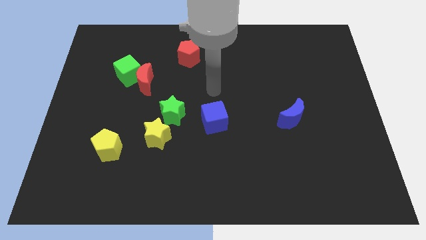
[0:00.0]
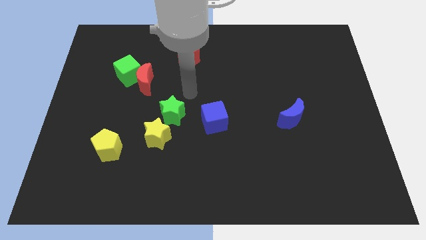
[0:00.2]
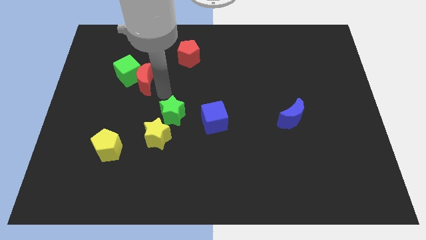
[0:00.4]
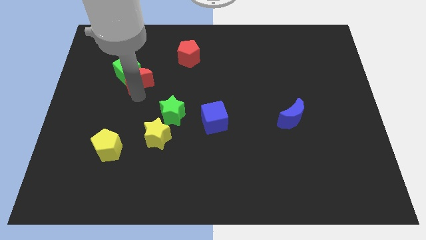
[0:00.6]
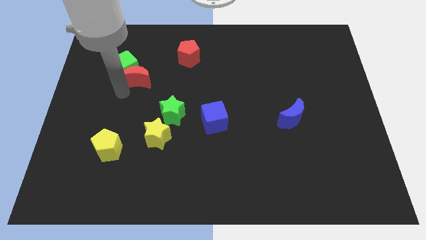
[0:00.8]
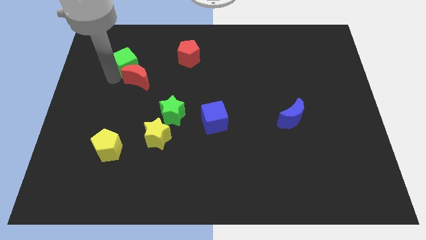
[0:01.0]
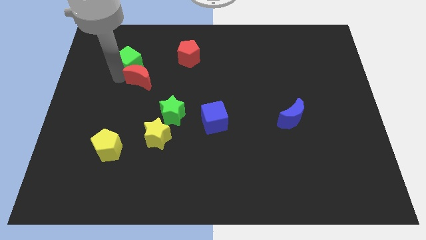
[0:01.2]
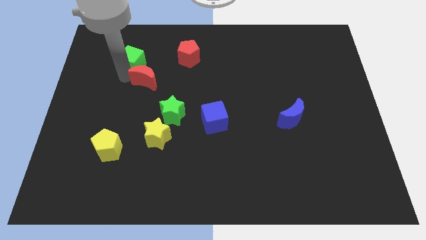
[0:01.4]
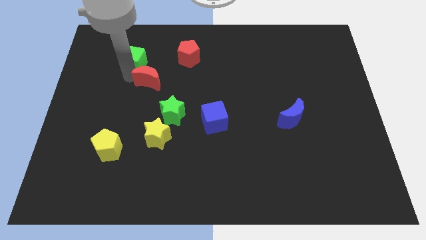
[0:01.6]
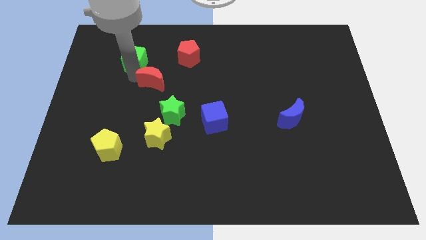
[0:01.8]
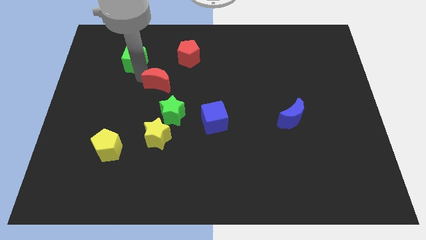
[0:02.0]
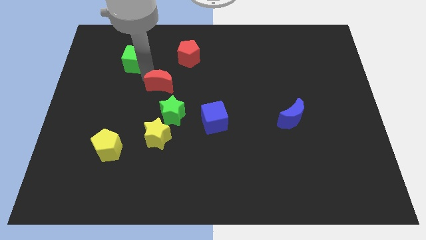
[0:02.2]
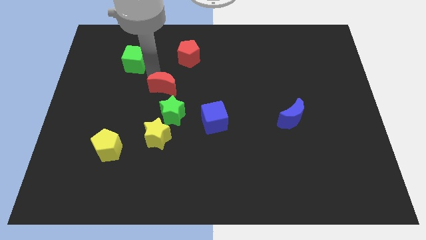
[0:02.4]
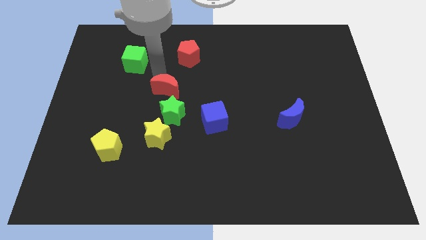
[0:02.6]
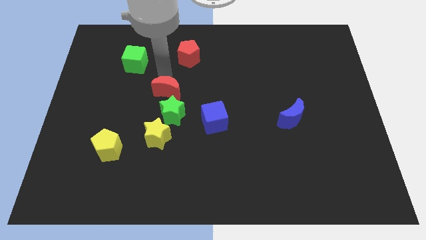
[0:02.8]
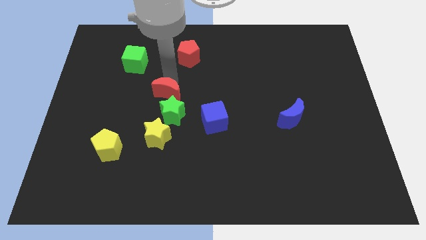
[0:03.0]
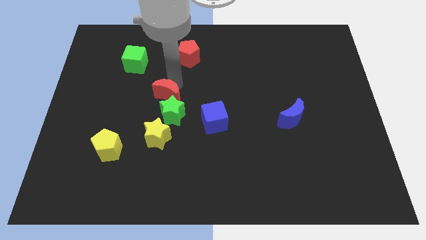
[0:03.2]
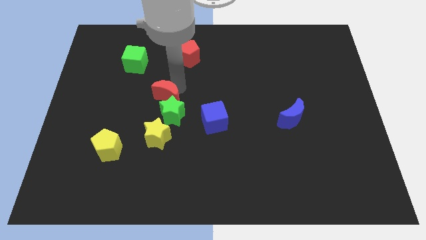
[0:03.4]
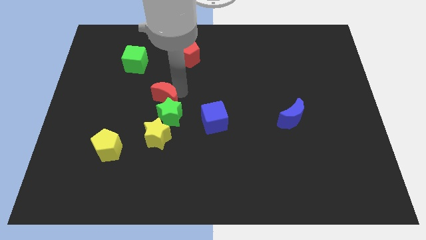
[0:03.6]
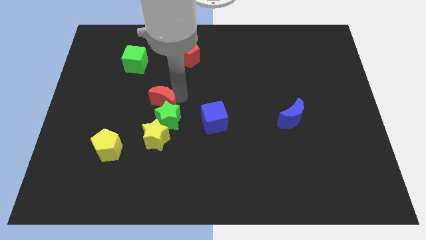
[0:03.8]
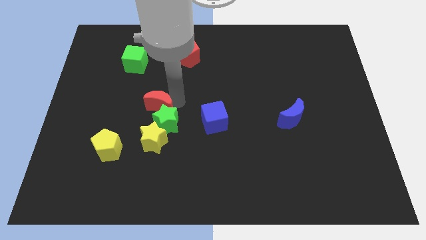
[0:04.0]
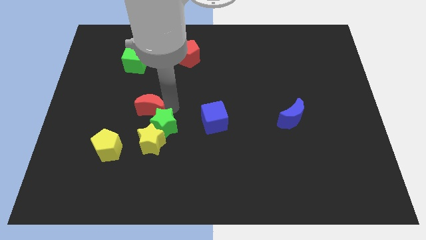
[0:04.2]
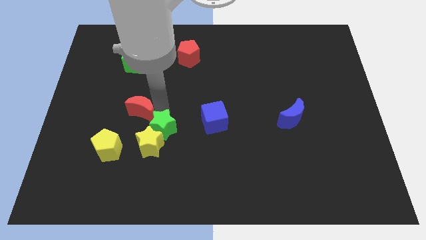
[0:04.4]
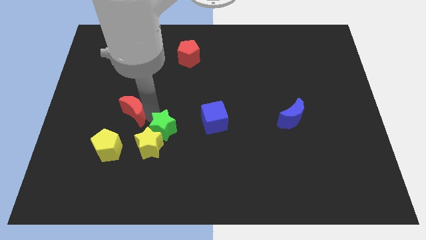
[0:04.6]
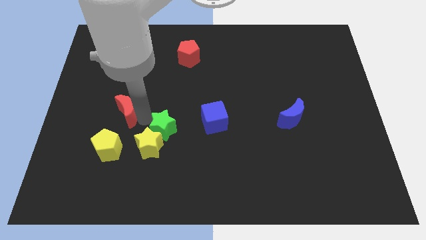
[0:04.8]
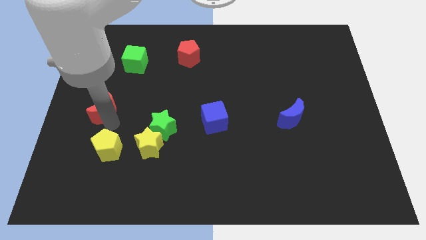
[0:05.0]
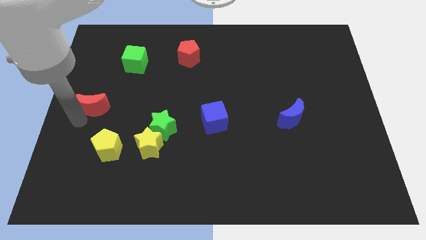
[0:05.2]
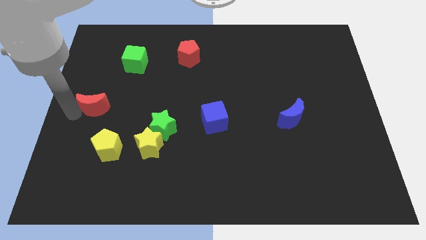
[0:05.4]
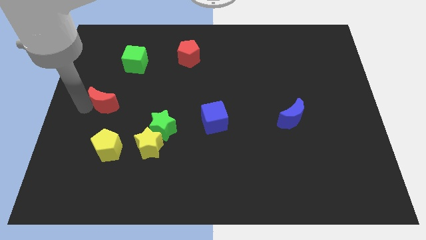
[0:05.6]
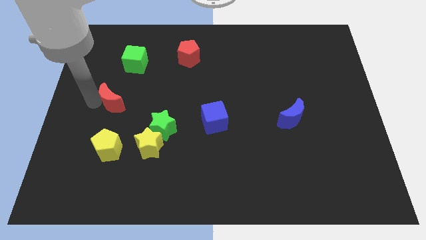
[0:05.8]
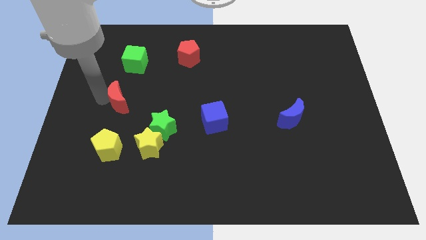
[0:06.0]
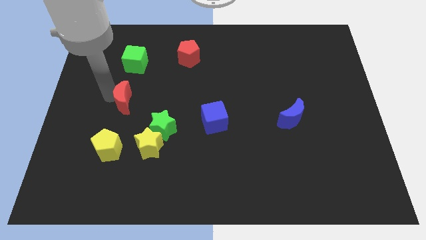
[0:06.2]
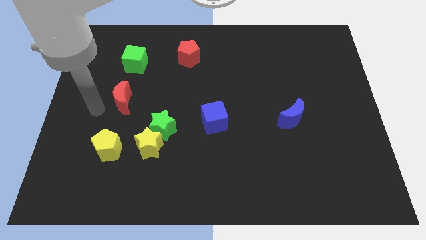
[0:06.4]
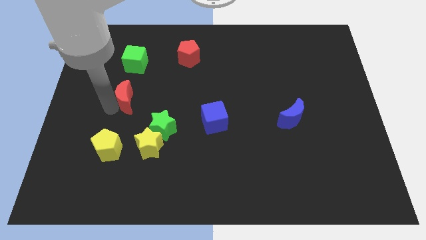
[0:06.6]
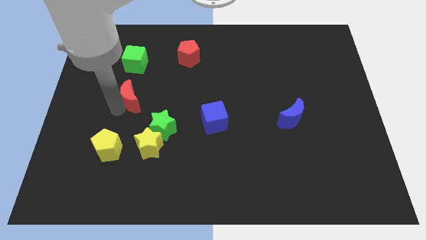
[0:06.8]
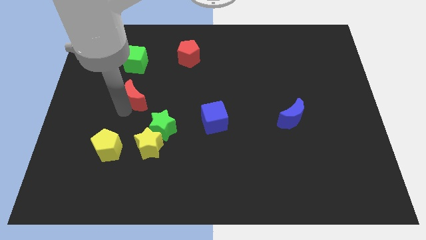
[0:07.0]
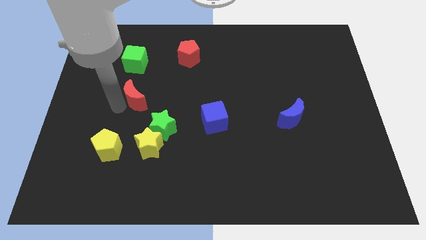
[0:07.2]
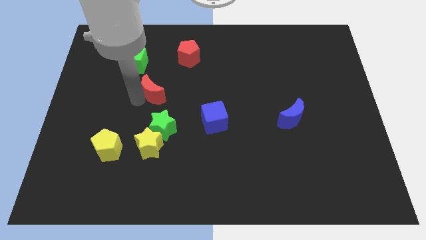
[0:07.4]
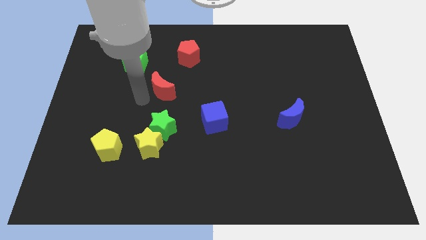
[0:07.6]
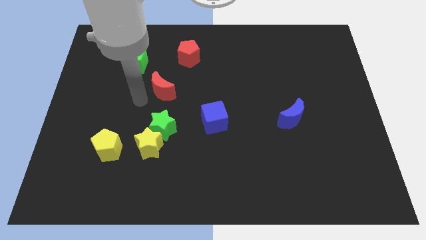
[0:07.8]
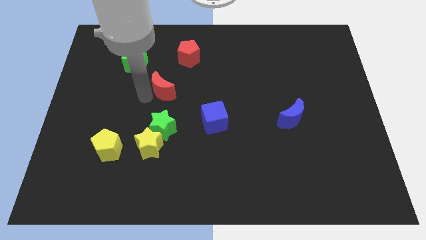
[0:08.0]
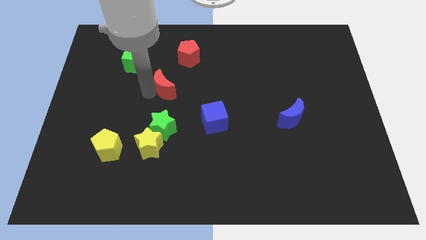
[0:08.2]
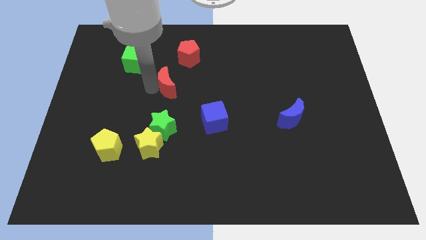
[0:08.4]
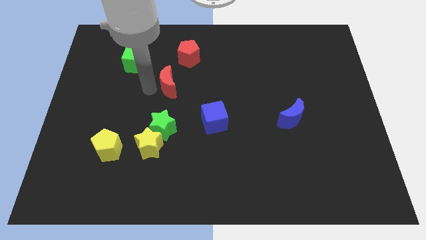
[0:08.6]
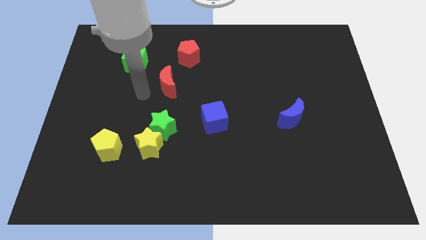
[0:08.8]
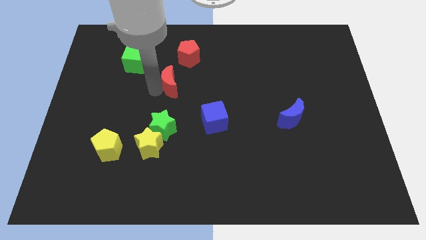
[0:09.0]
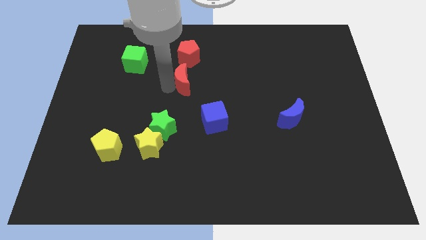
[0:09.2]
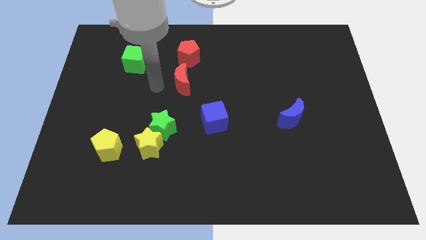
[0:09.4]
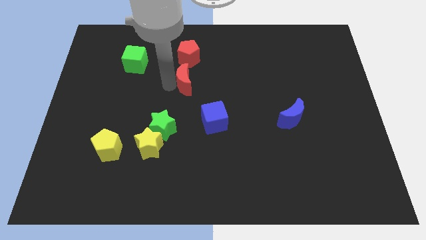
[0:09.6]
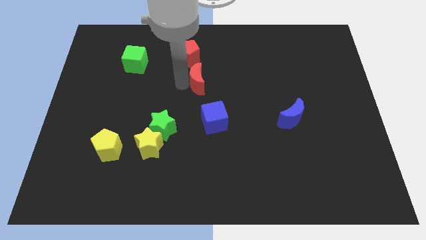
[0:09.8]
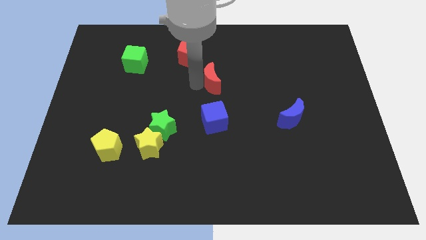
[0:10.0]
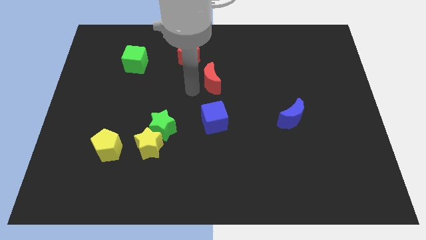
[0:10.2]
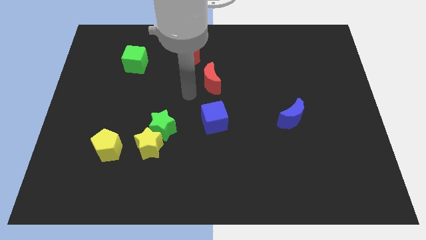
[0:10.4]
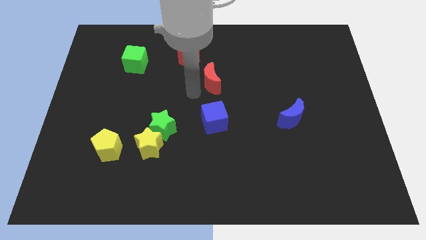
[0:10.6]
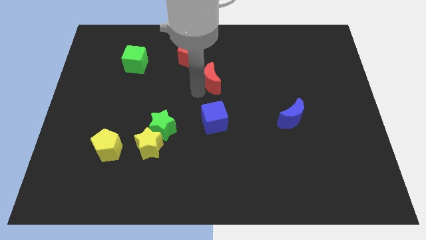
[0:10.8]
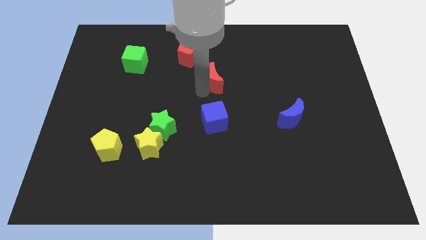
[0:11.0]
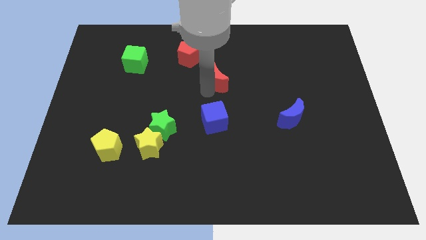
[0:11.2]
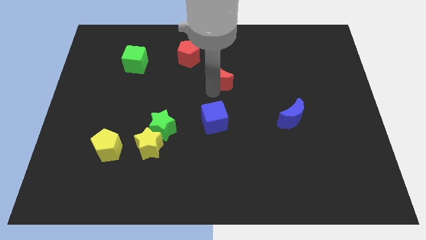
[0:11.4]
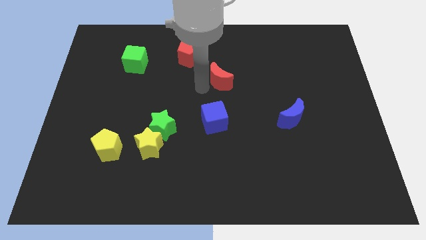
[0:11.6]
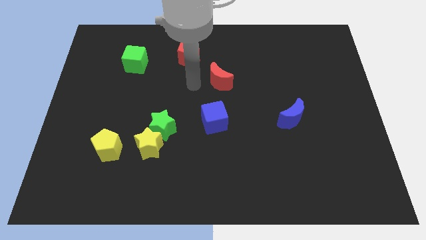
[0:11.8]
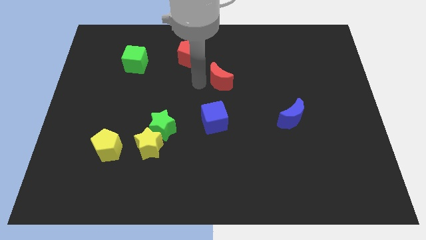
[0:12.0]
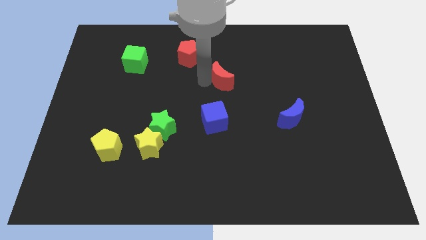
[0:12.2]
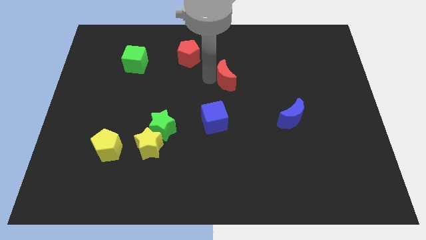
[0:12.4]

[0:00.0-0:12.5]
move the red moon to the right

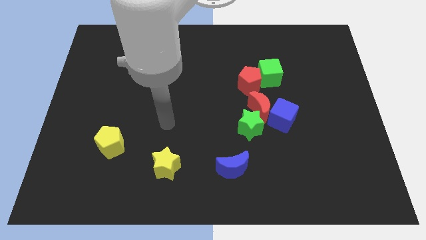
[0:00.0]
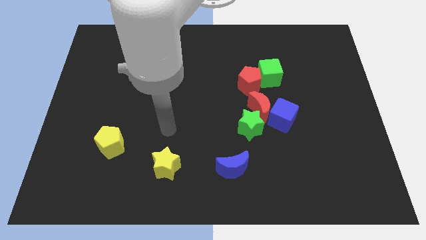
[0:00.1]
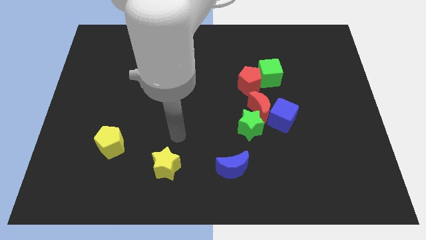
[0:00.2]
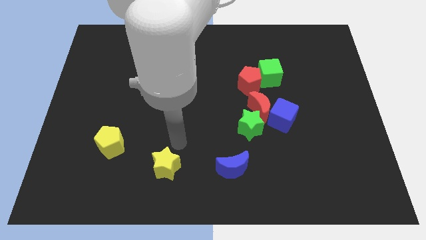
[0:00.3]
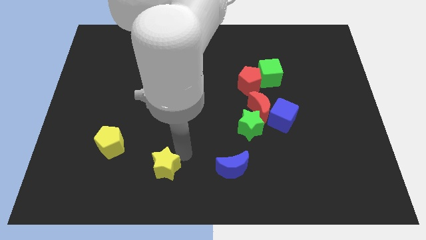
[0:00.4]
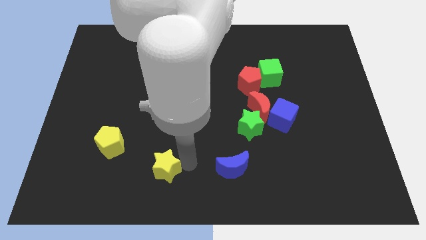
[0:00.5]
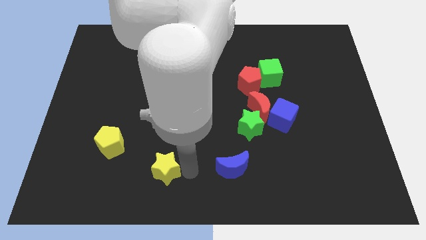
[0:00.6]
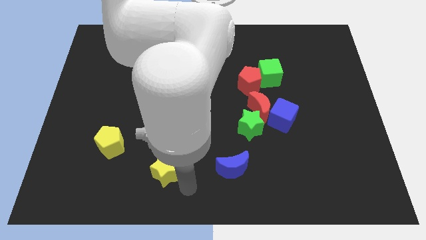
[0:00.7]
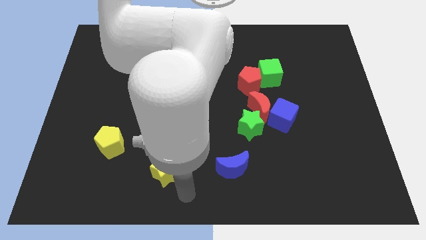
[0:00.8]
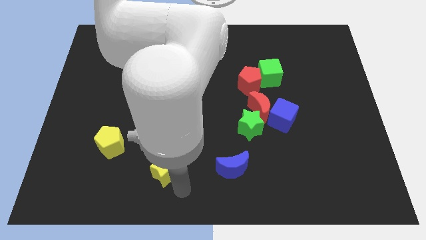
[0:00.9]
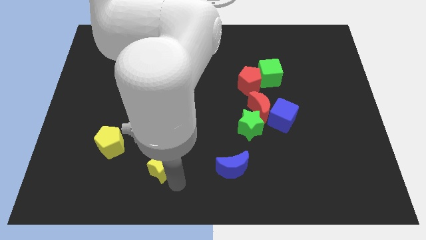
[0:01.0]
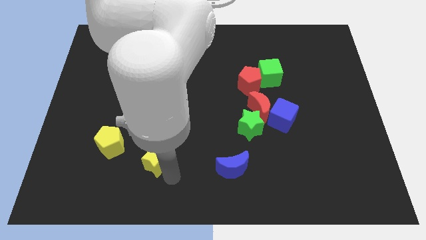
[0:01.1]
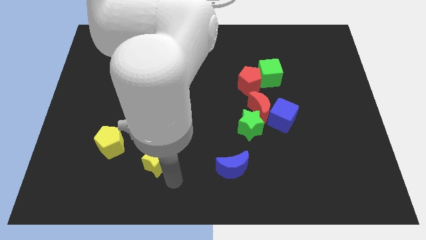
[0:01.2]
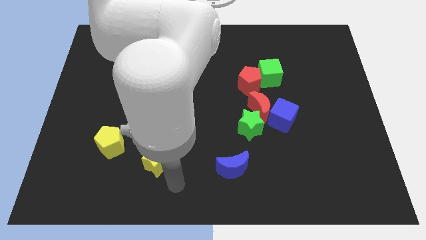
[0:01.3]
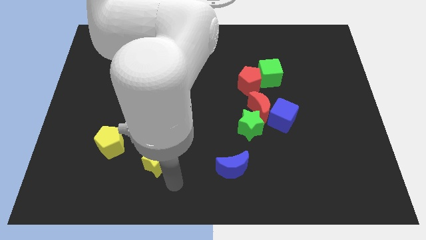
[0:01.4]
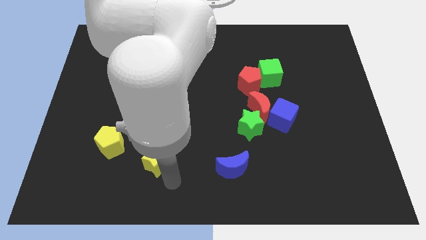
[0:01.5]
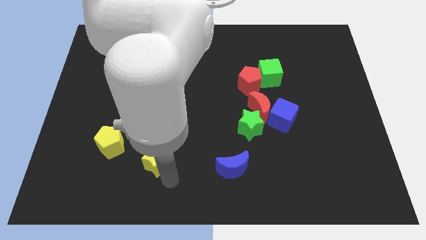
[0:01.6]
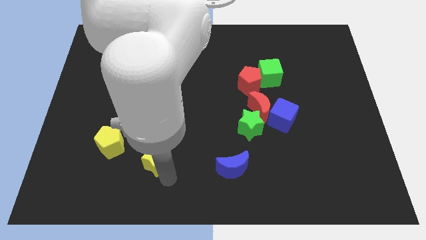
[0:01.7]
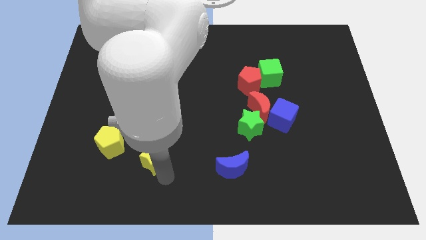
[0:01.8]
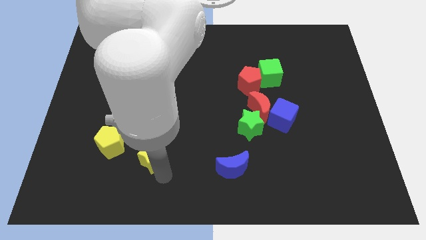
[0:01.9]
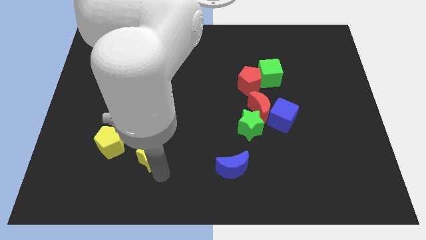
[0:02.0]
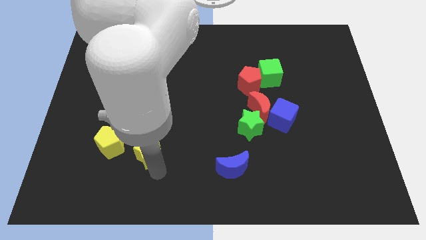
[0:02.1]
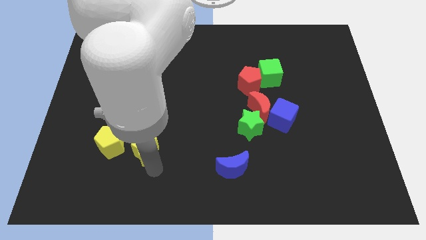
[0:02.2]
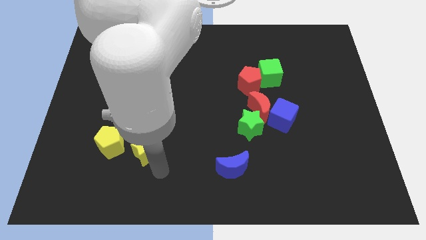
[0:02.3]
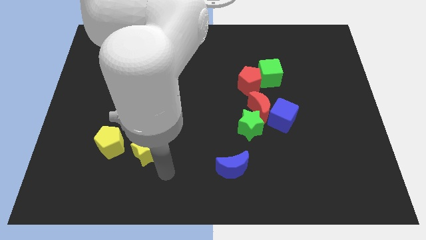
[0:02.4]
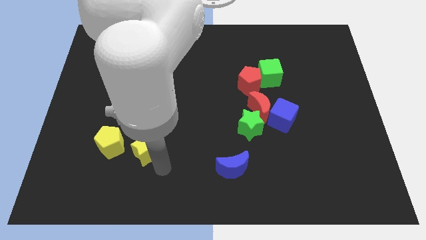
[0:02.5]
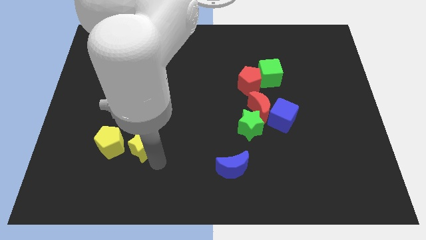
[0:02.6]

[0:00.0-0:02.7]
slide the yellow star slightly up and then left
